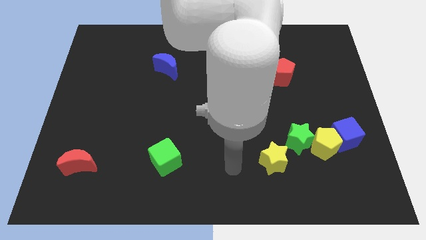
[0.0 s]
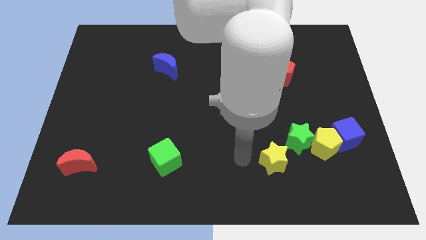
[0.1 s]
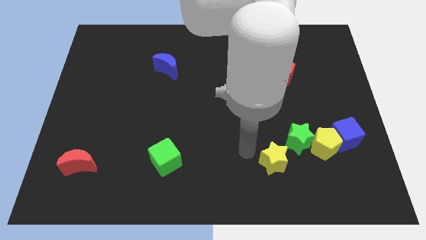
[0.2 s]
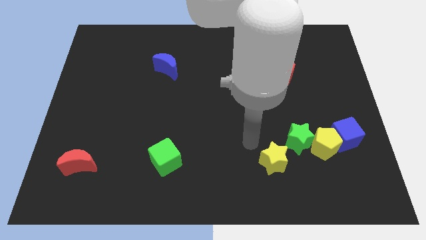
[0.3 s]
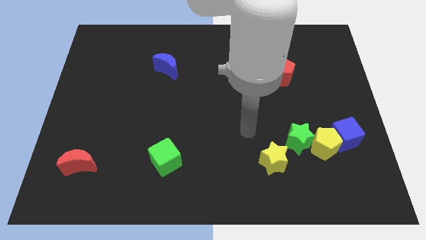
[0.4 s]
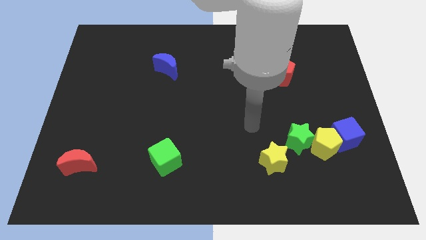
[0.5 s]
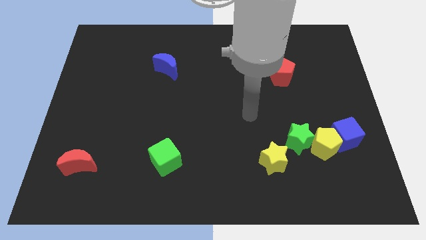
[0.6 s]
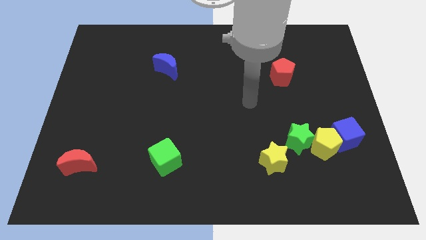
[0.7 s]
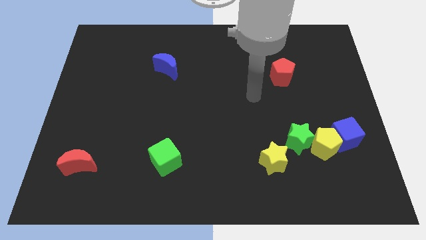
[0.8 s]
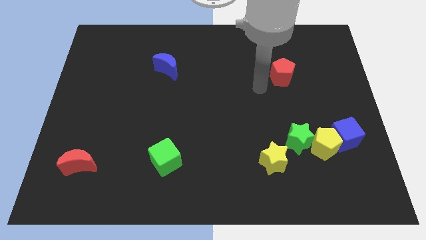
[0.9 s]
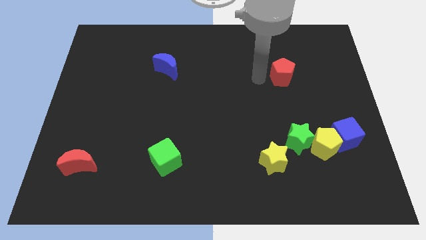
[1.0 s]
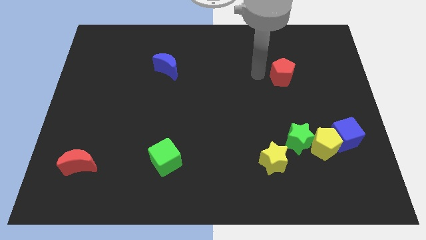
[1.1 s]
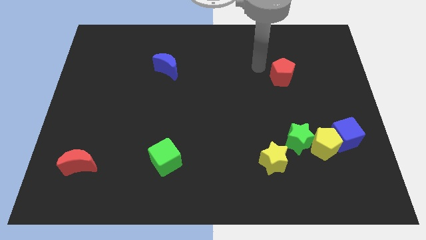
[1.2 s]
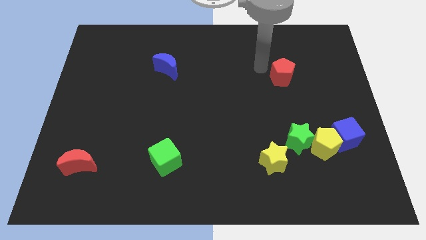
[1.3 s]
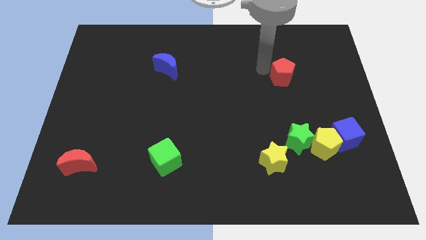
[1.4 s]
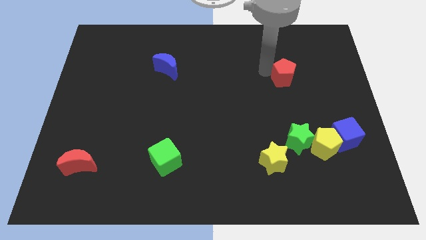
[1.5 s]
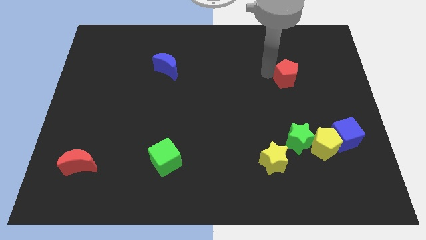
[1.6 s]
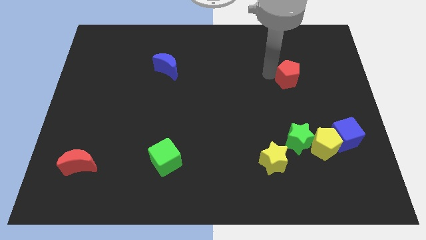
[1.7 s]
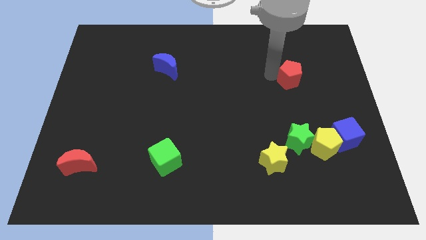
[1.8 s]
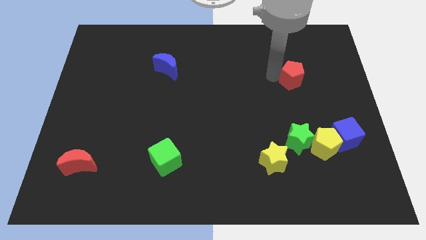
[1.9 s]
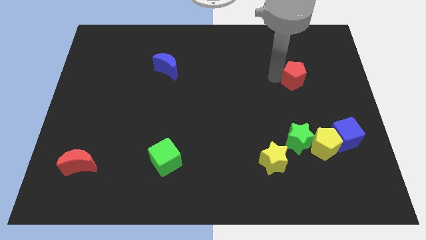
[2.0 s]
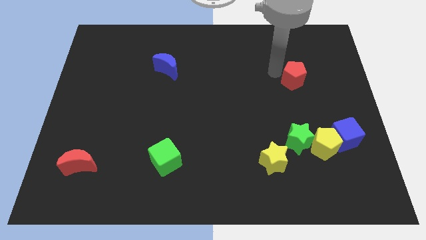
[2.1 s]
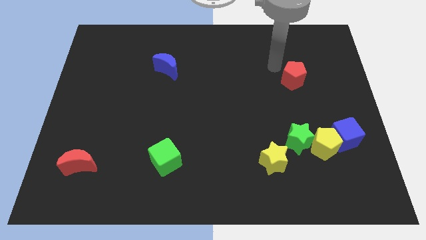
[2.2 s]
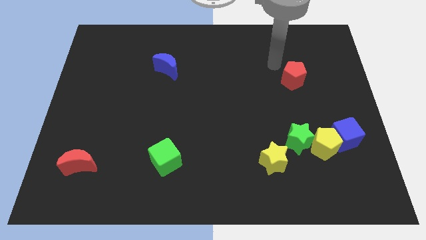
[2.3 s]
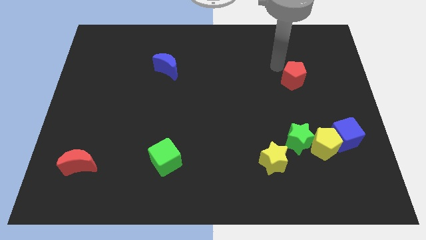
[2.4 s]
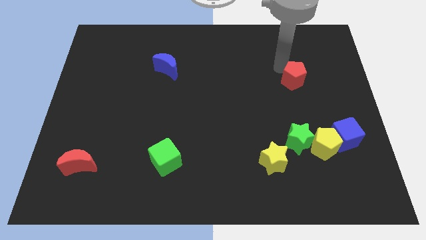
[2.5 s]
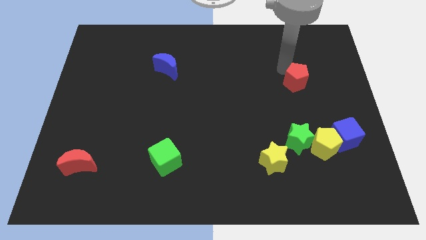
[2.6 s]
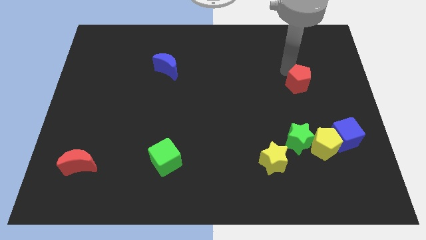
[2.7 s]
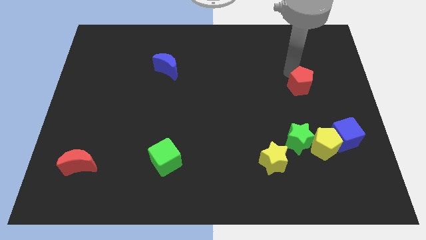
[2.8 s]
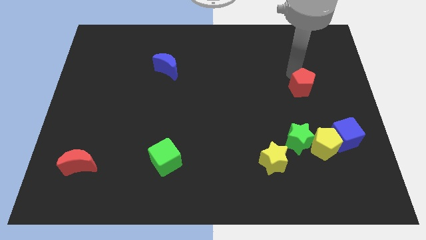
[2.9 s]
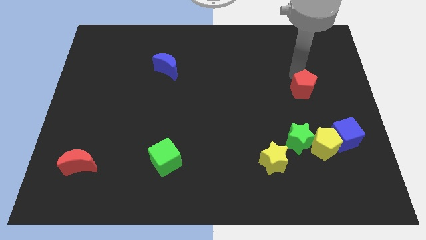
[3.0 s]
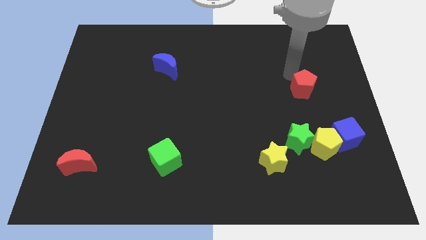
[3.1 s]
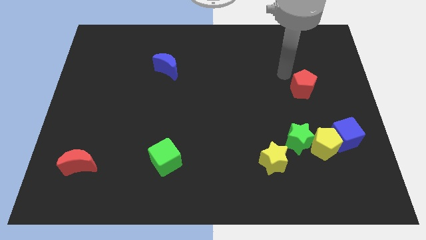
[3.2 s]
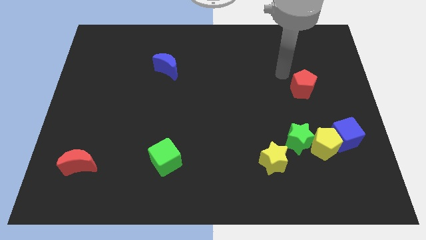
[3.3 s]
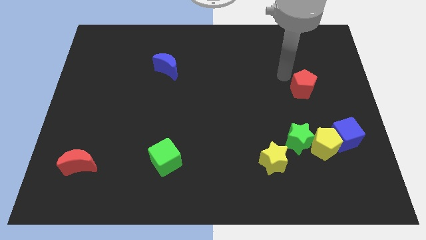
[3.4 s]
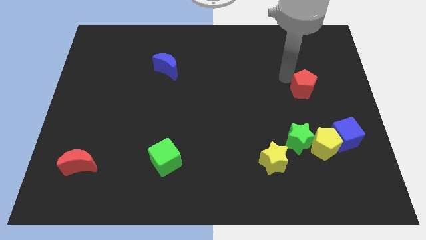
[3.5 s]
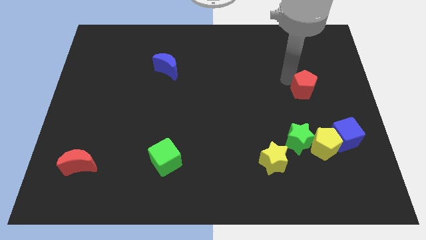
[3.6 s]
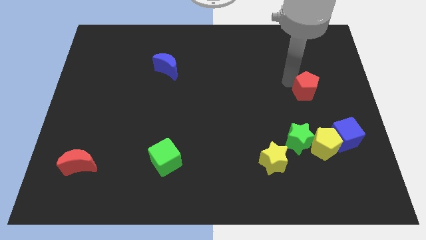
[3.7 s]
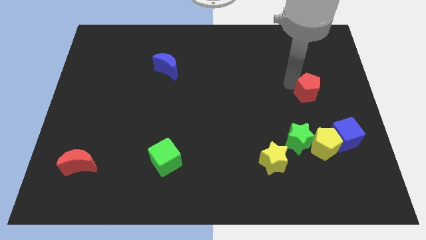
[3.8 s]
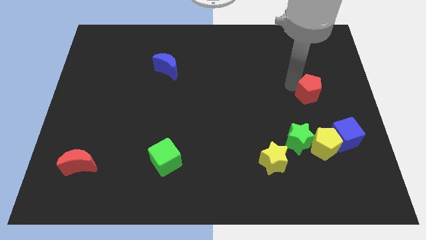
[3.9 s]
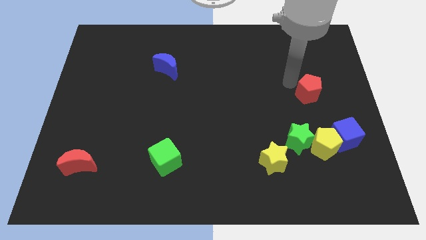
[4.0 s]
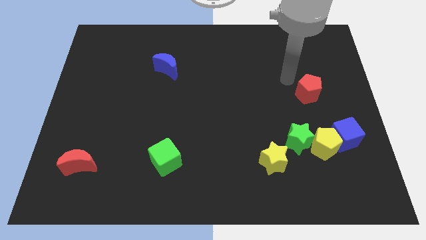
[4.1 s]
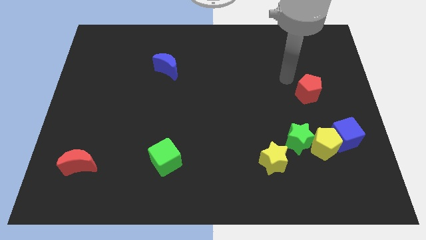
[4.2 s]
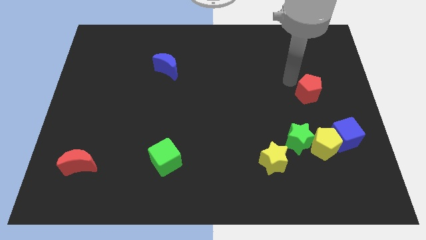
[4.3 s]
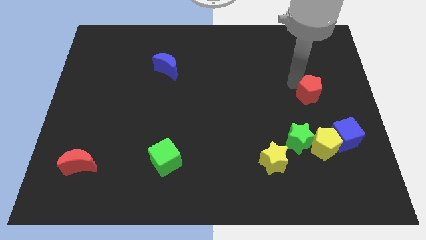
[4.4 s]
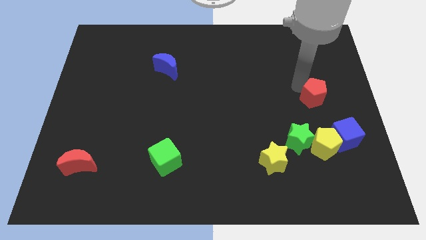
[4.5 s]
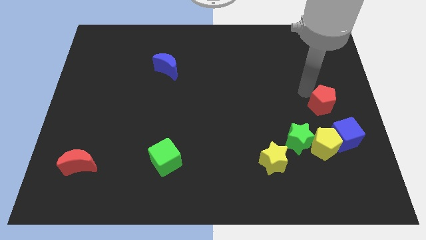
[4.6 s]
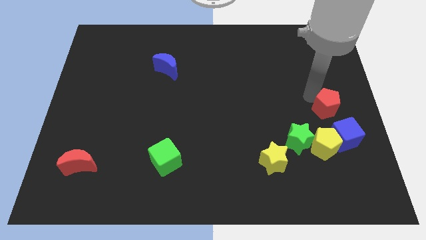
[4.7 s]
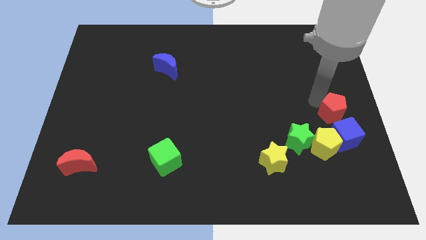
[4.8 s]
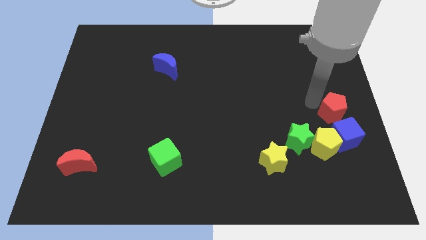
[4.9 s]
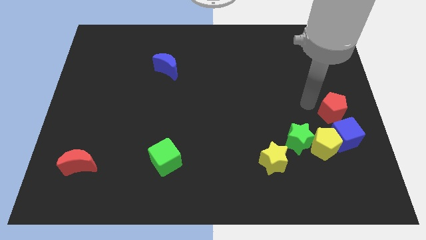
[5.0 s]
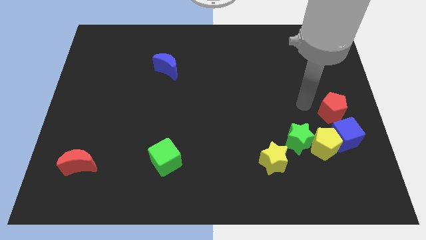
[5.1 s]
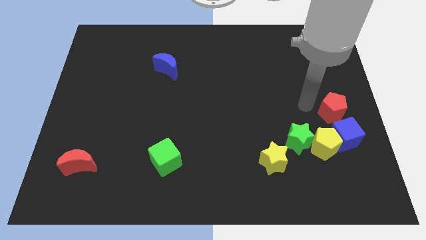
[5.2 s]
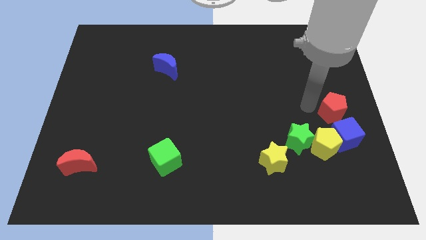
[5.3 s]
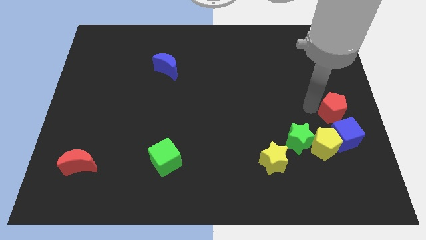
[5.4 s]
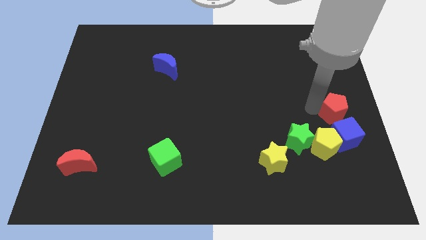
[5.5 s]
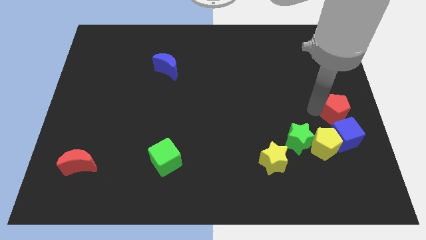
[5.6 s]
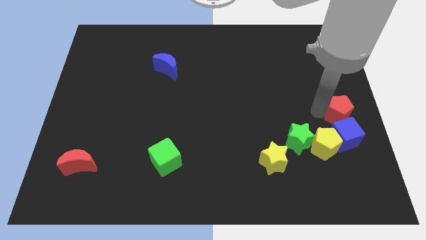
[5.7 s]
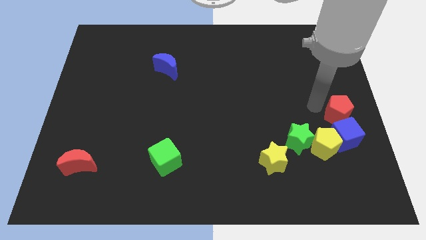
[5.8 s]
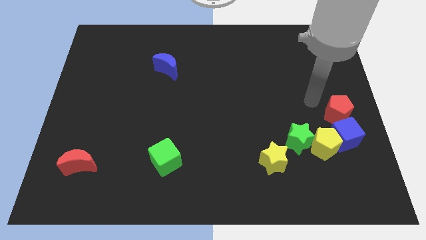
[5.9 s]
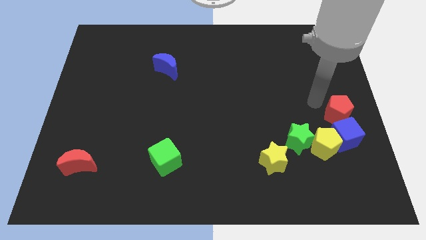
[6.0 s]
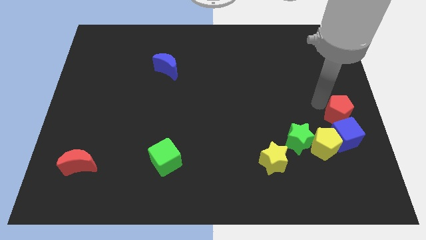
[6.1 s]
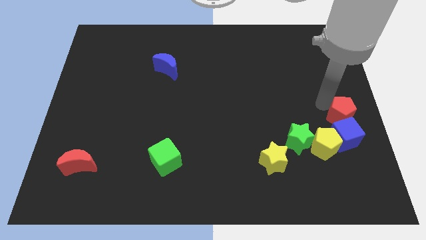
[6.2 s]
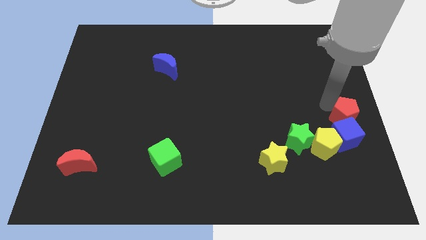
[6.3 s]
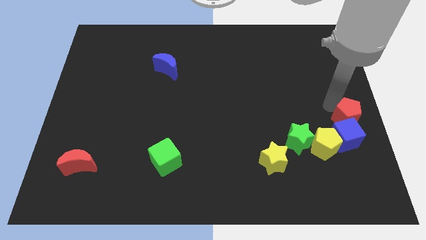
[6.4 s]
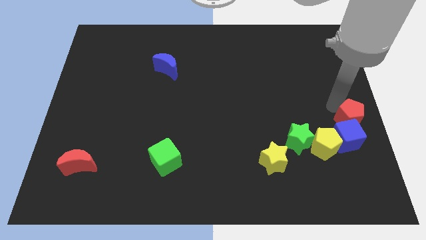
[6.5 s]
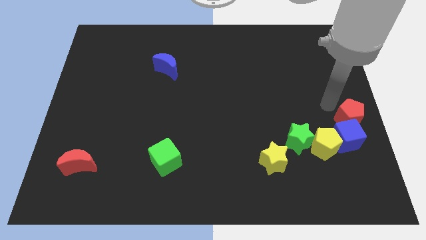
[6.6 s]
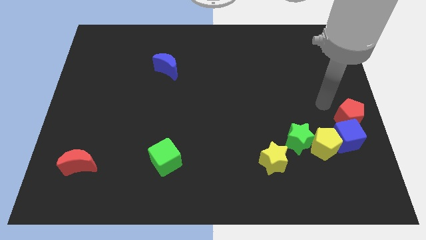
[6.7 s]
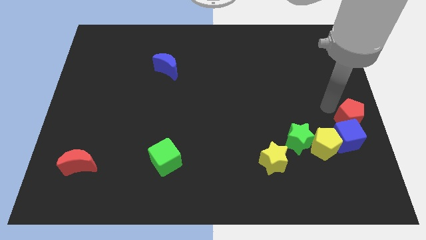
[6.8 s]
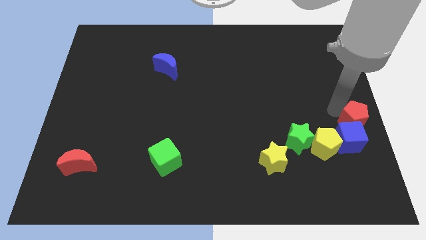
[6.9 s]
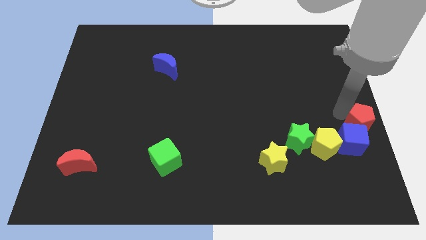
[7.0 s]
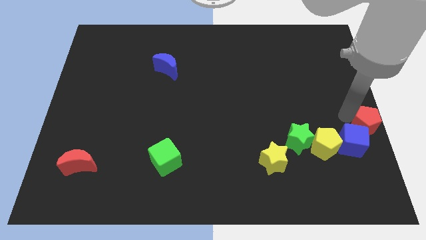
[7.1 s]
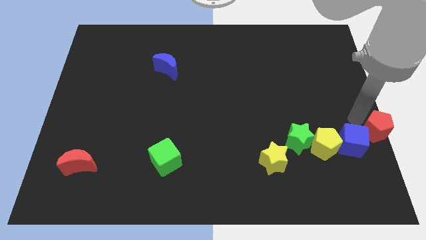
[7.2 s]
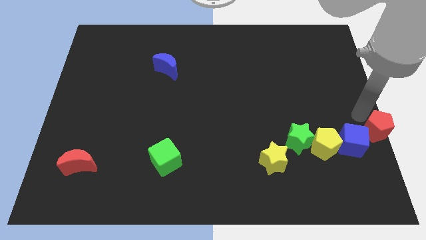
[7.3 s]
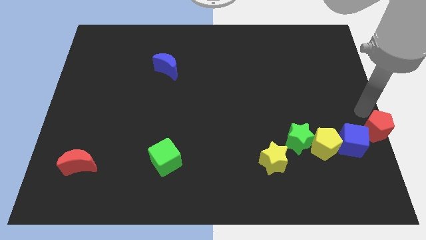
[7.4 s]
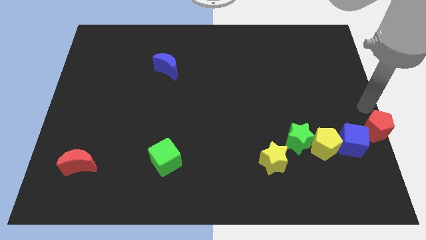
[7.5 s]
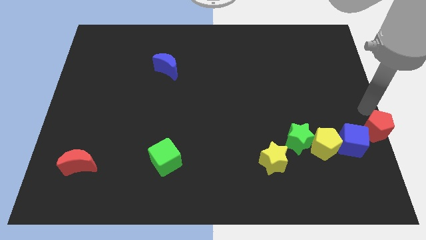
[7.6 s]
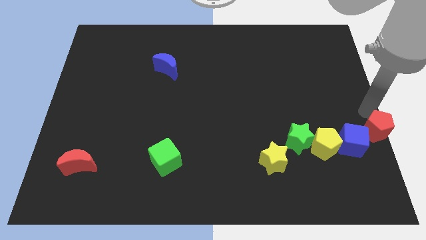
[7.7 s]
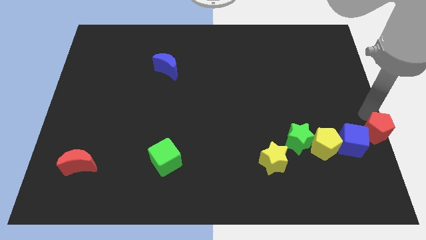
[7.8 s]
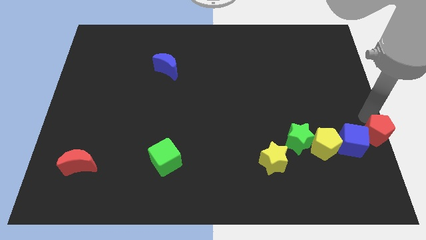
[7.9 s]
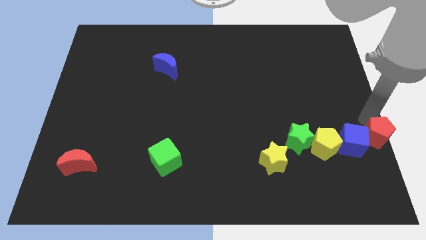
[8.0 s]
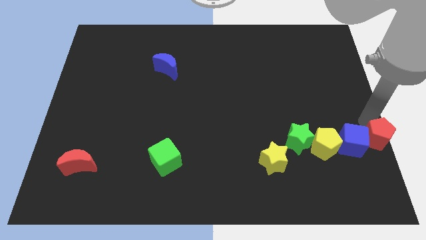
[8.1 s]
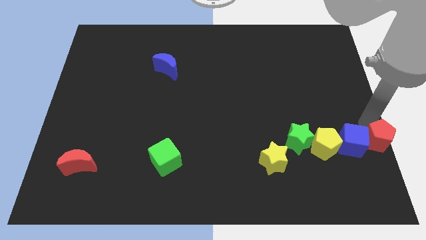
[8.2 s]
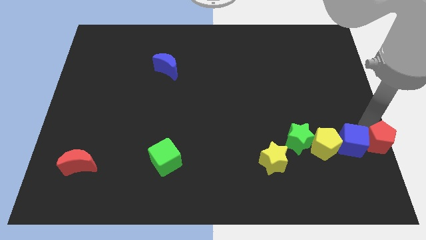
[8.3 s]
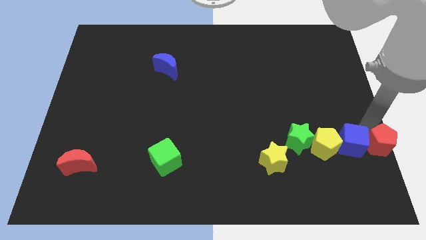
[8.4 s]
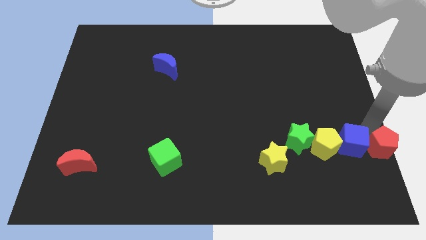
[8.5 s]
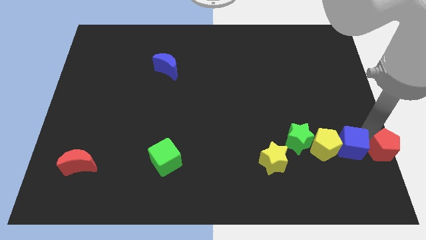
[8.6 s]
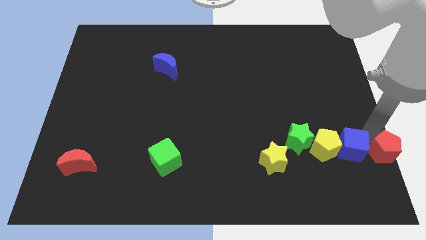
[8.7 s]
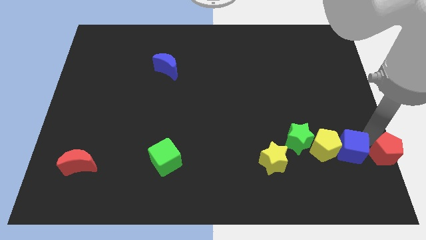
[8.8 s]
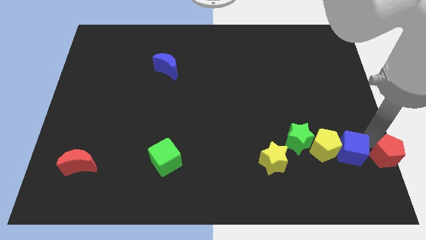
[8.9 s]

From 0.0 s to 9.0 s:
move the red pentagon to the bottom right corner
